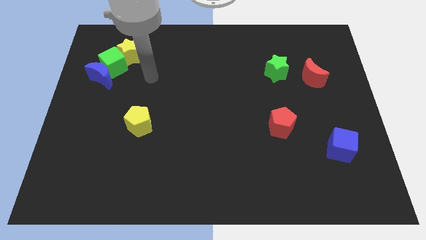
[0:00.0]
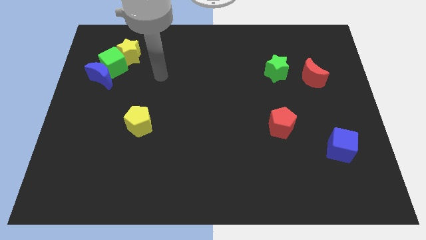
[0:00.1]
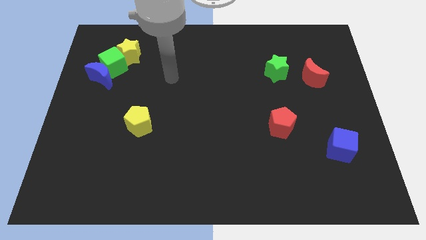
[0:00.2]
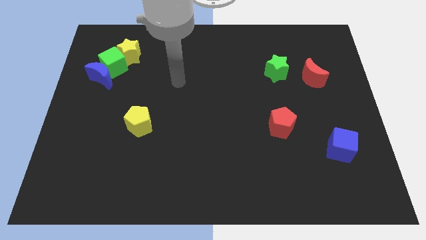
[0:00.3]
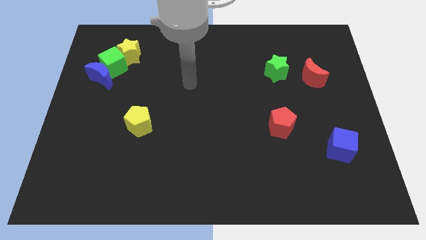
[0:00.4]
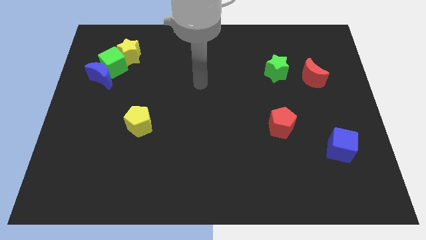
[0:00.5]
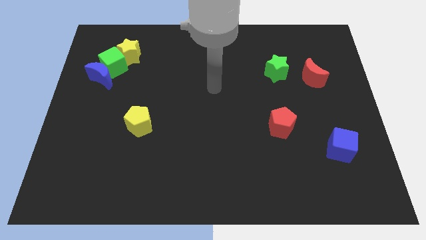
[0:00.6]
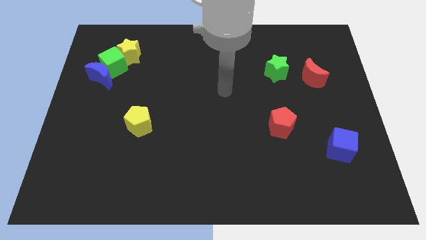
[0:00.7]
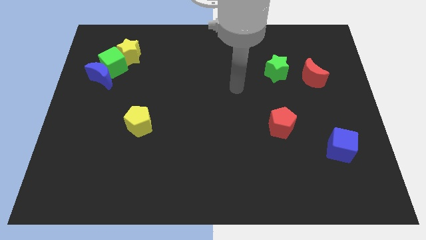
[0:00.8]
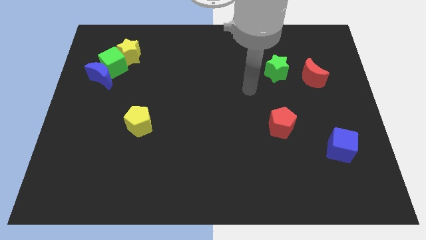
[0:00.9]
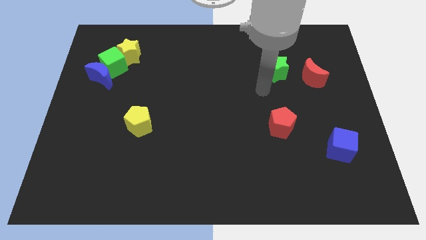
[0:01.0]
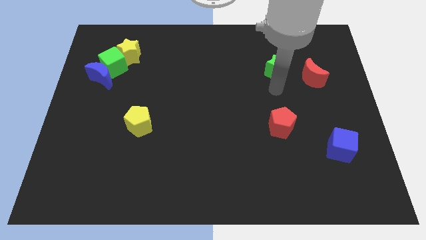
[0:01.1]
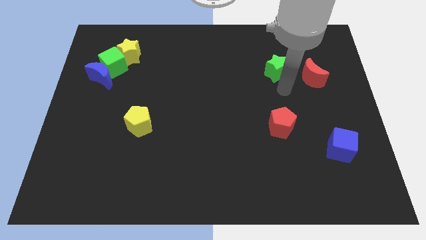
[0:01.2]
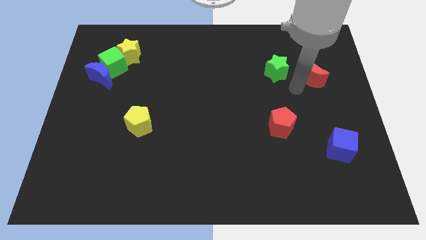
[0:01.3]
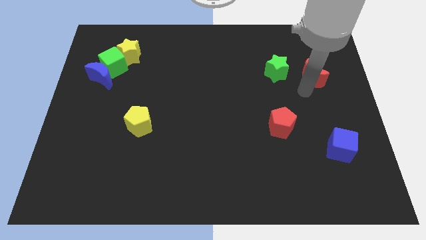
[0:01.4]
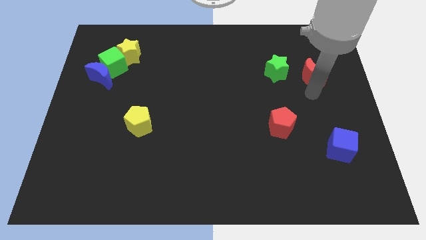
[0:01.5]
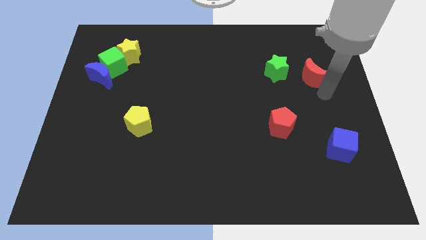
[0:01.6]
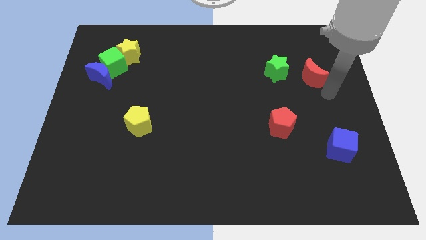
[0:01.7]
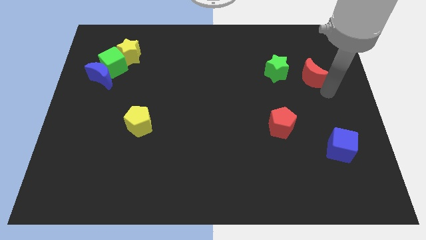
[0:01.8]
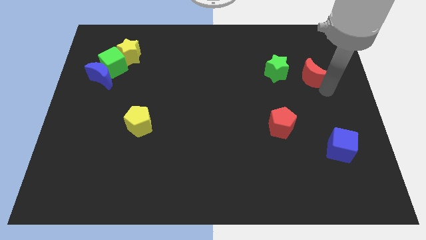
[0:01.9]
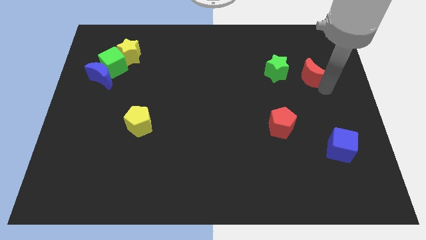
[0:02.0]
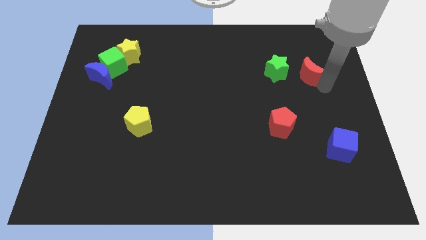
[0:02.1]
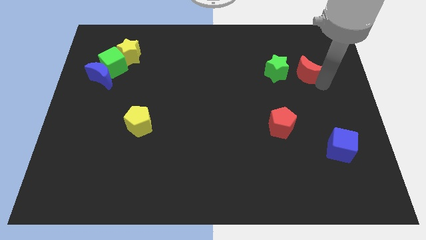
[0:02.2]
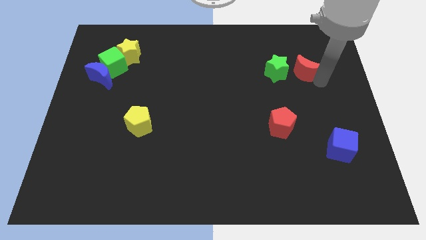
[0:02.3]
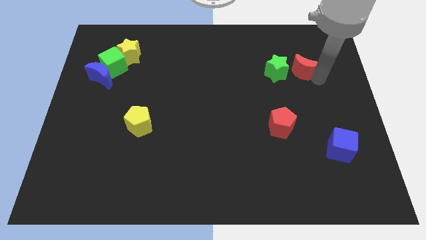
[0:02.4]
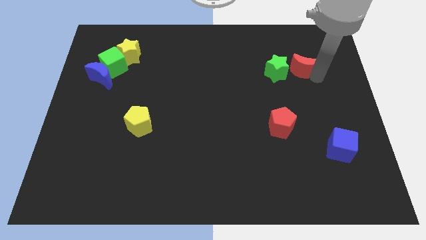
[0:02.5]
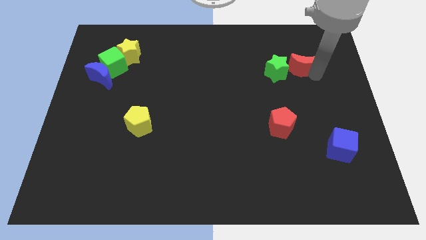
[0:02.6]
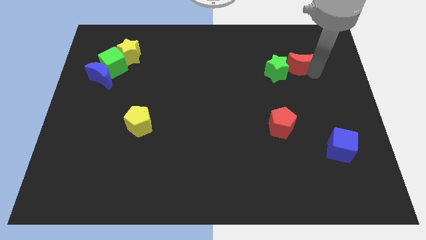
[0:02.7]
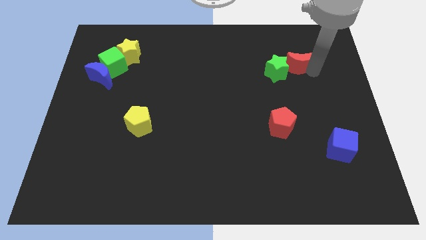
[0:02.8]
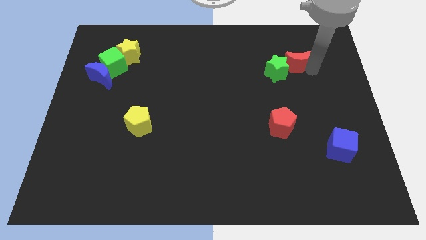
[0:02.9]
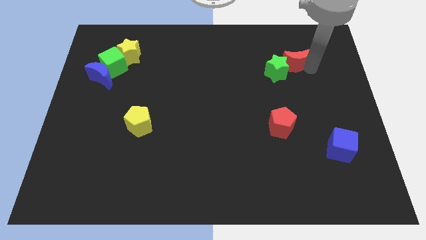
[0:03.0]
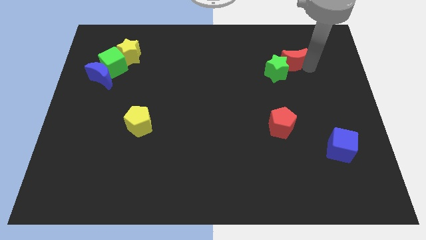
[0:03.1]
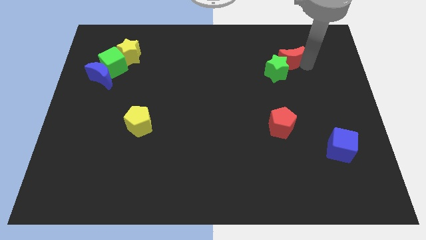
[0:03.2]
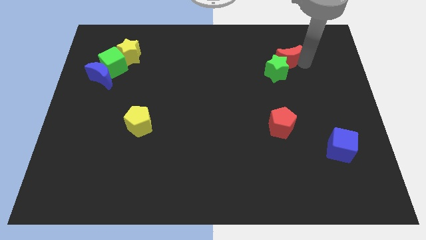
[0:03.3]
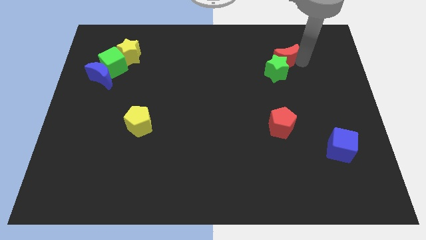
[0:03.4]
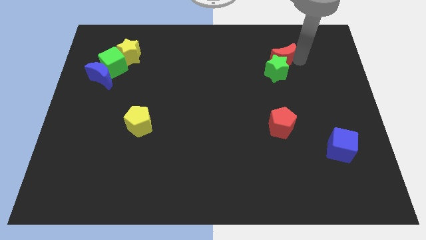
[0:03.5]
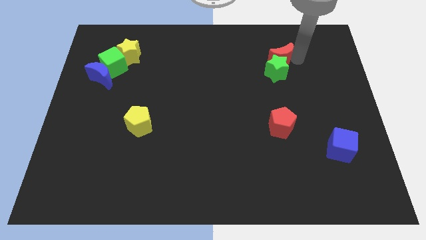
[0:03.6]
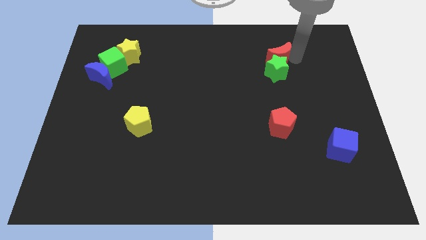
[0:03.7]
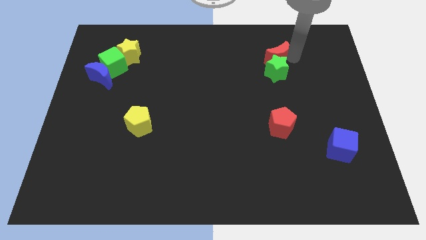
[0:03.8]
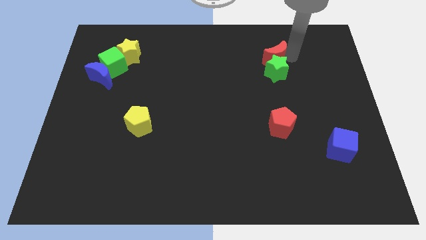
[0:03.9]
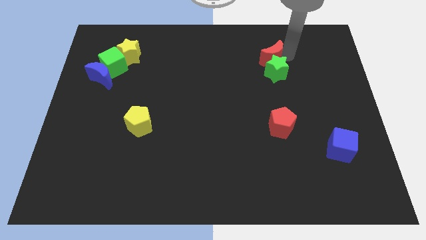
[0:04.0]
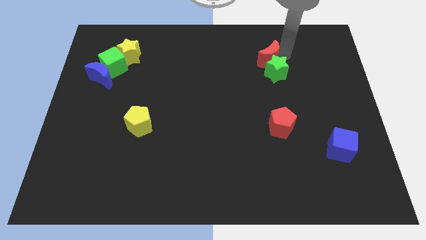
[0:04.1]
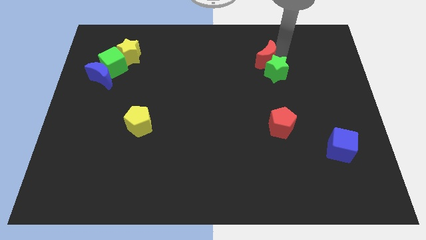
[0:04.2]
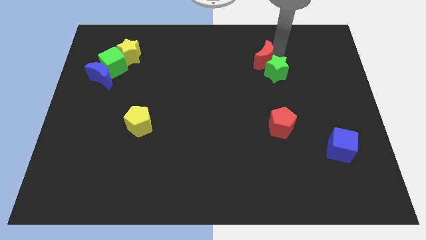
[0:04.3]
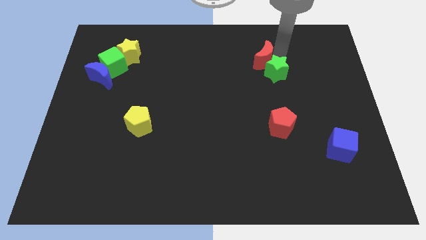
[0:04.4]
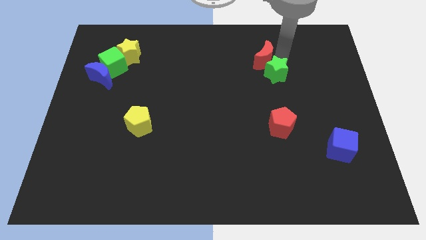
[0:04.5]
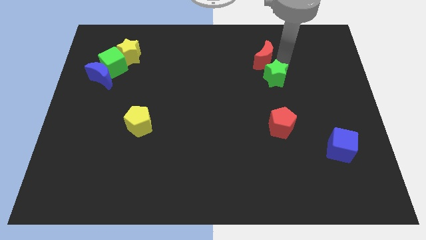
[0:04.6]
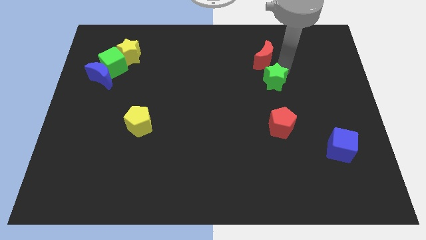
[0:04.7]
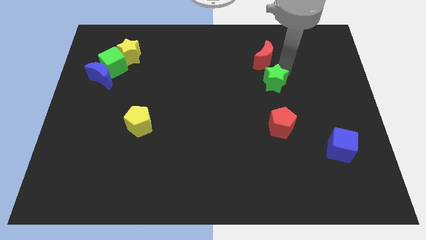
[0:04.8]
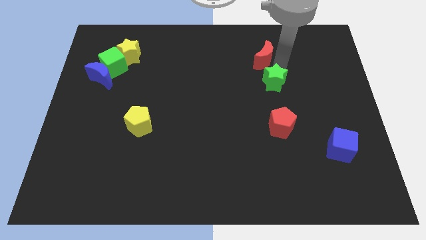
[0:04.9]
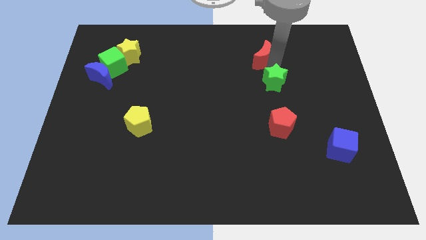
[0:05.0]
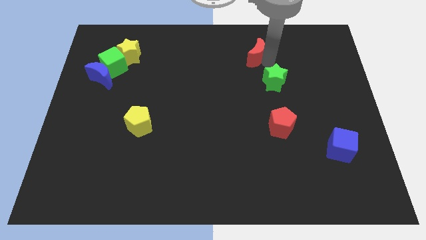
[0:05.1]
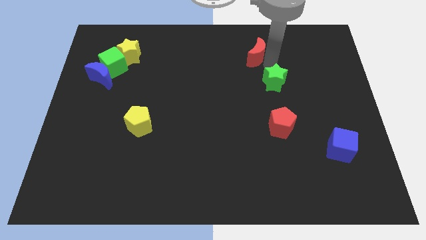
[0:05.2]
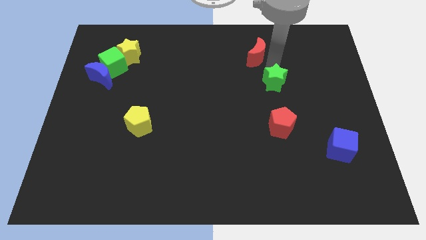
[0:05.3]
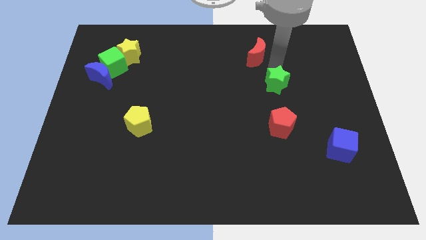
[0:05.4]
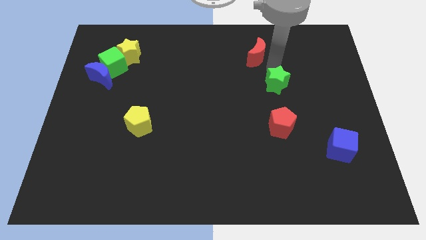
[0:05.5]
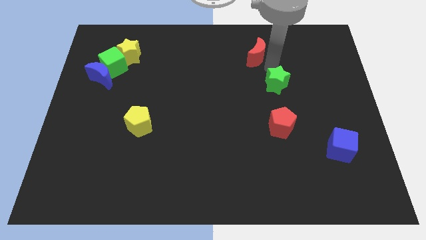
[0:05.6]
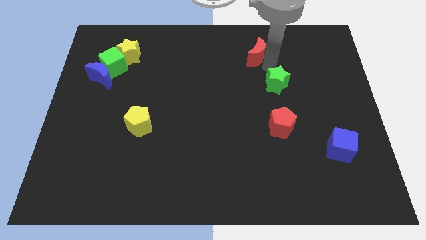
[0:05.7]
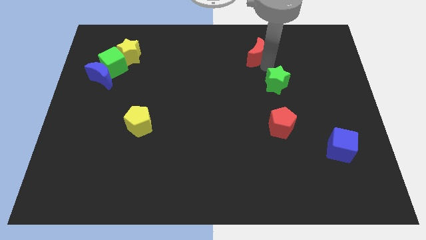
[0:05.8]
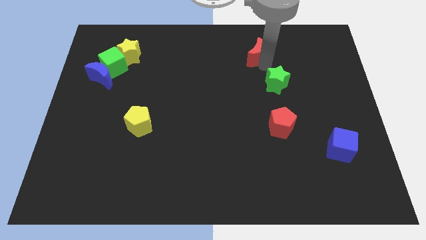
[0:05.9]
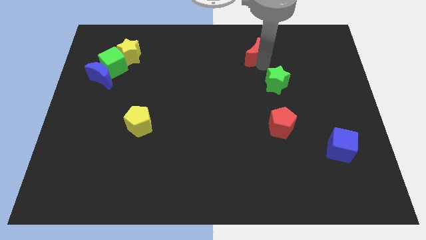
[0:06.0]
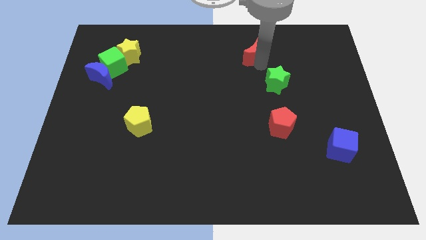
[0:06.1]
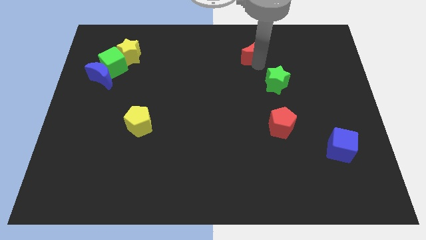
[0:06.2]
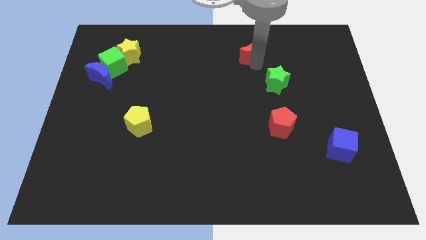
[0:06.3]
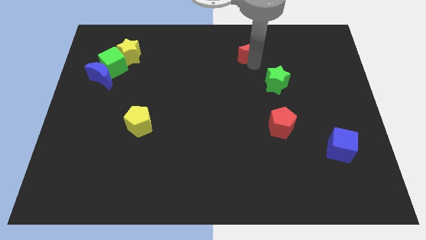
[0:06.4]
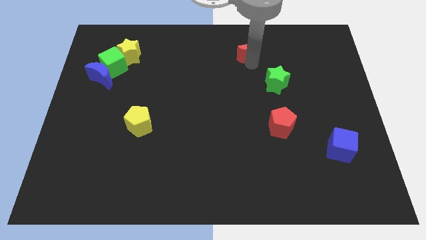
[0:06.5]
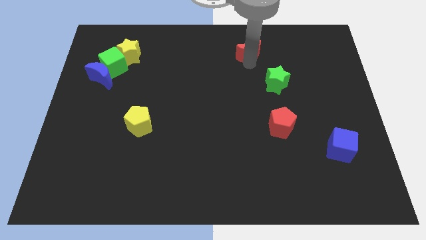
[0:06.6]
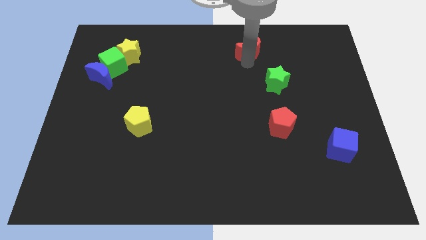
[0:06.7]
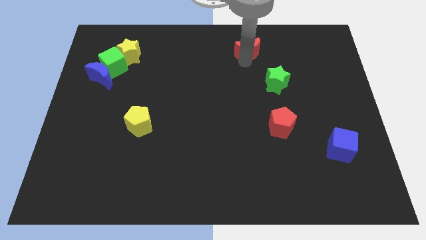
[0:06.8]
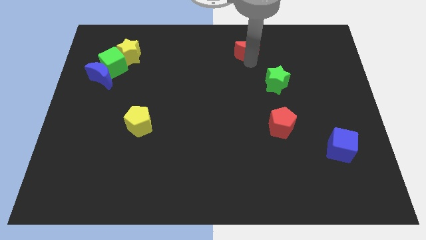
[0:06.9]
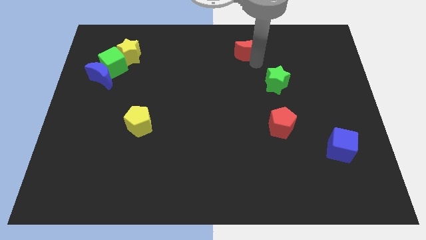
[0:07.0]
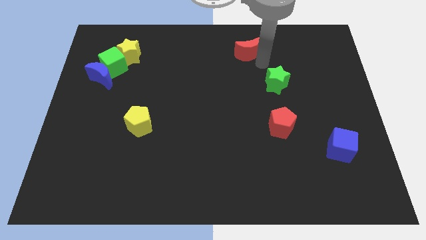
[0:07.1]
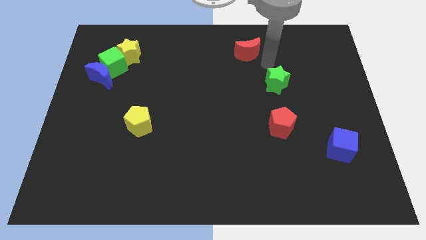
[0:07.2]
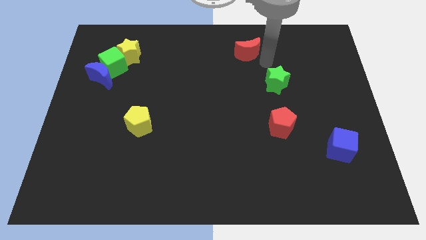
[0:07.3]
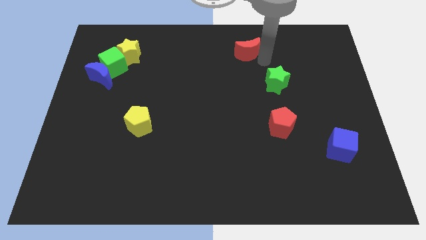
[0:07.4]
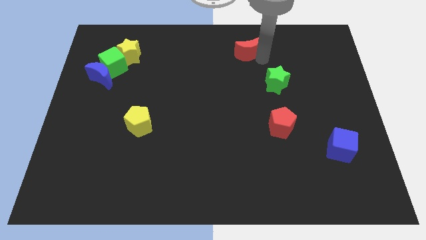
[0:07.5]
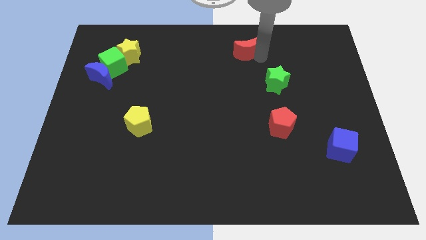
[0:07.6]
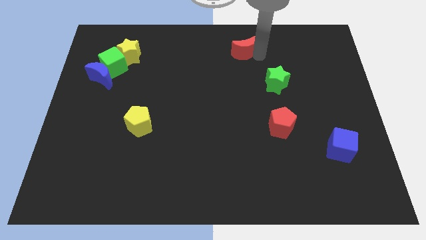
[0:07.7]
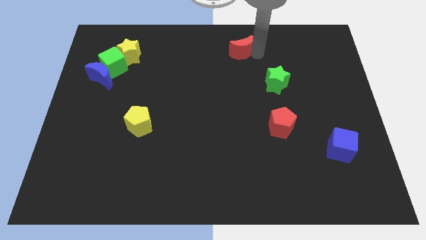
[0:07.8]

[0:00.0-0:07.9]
push the red moon to the top side

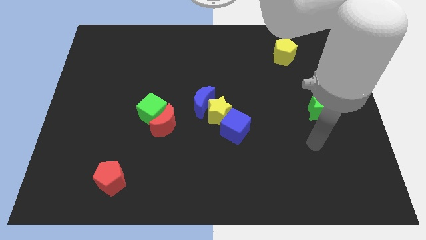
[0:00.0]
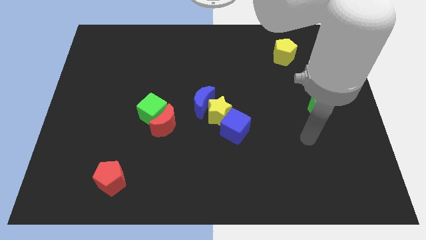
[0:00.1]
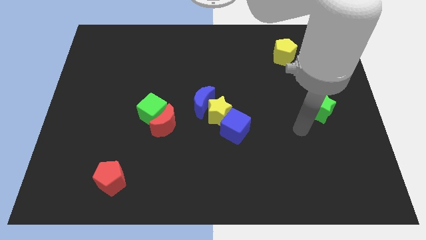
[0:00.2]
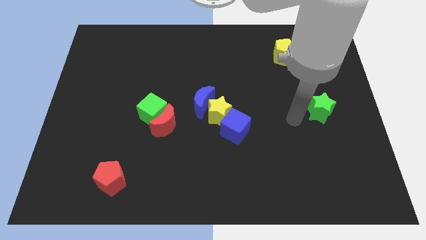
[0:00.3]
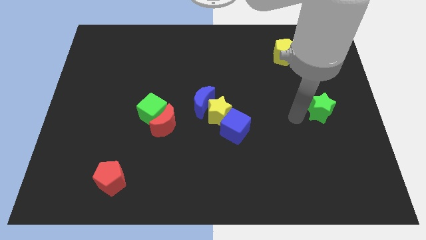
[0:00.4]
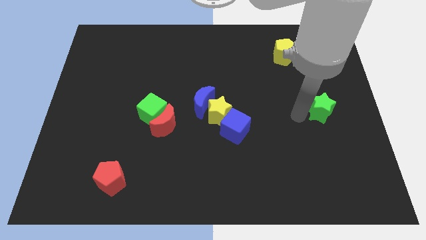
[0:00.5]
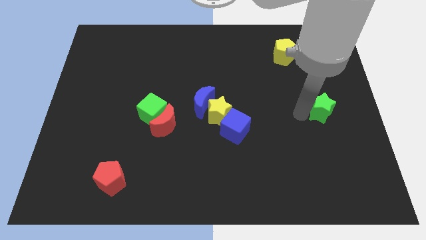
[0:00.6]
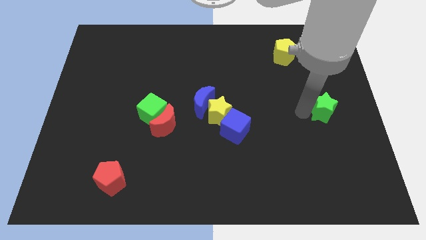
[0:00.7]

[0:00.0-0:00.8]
push the green star to the center right
